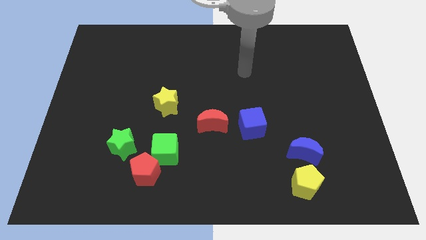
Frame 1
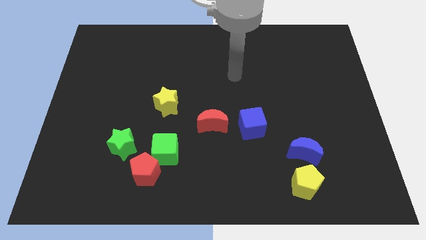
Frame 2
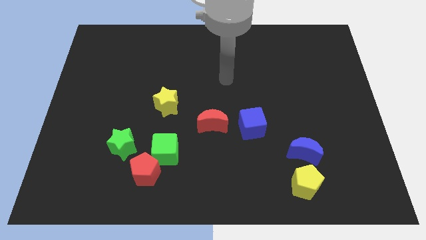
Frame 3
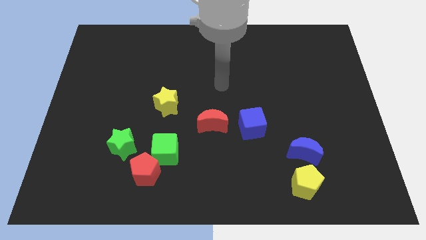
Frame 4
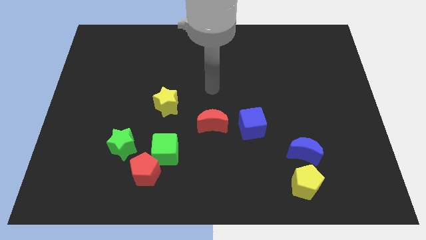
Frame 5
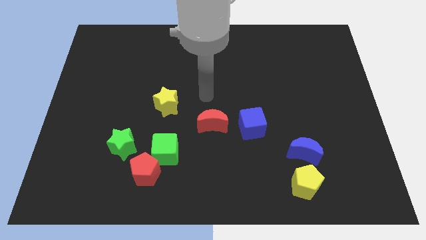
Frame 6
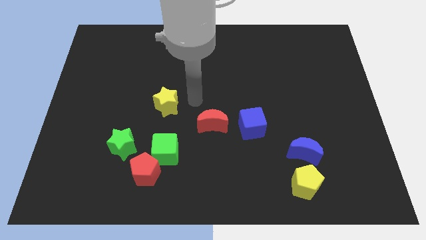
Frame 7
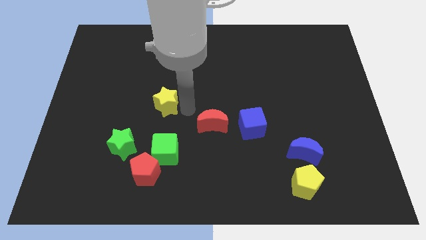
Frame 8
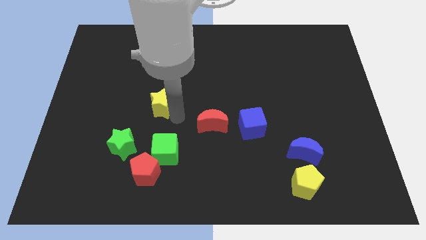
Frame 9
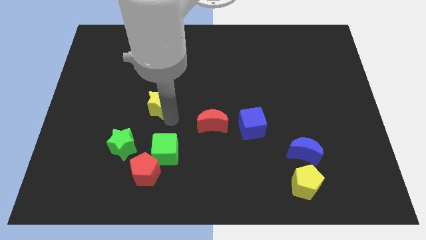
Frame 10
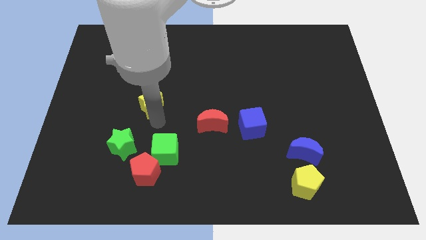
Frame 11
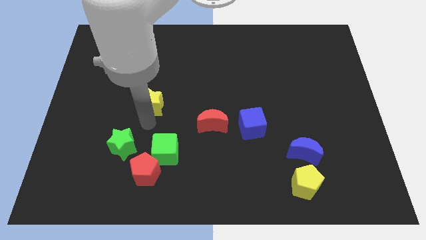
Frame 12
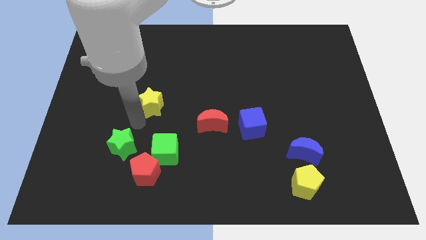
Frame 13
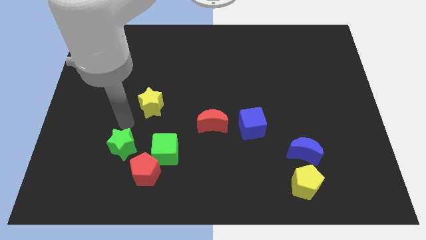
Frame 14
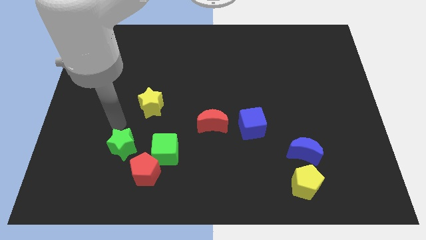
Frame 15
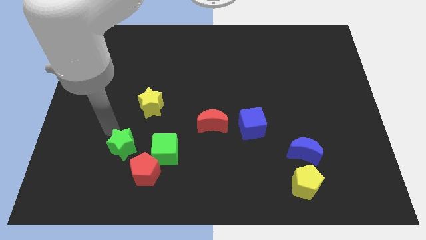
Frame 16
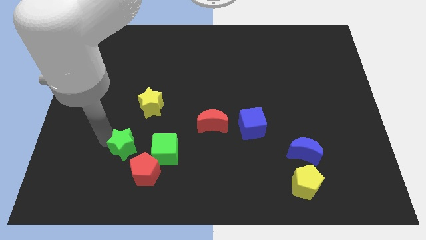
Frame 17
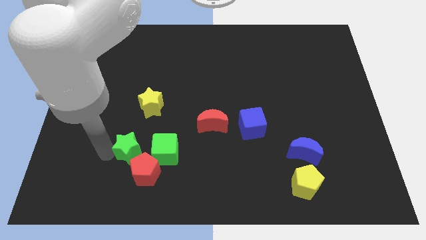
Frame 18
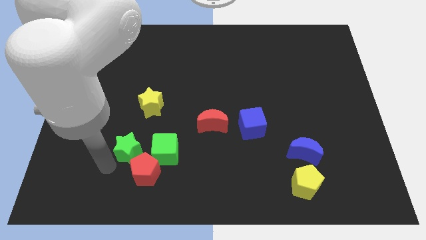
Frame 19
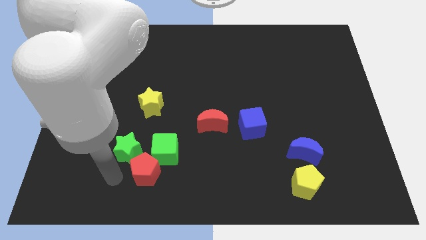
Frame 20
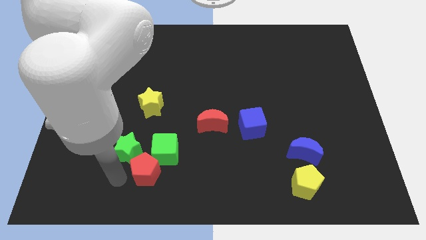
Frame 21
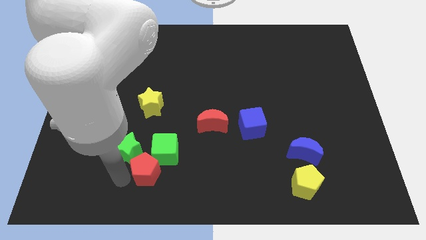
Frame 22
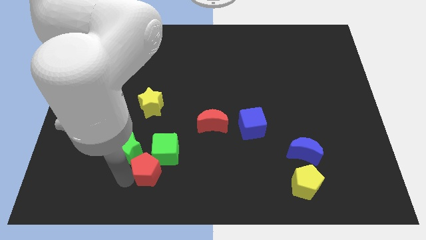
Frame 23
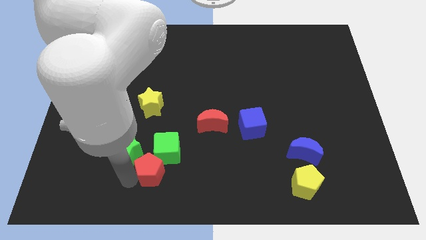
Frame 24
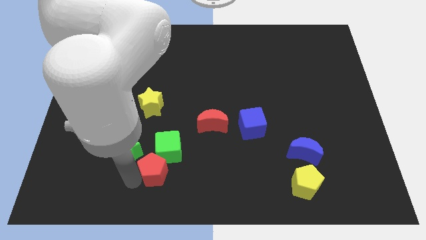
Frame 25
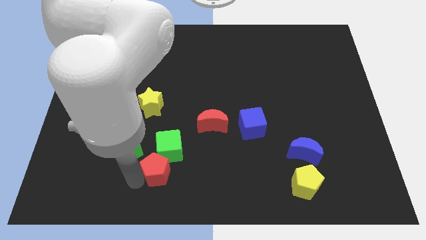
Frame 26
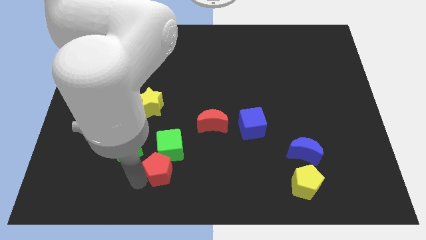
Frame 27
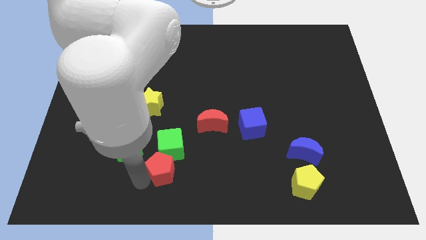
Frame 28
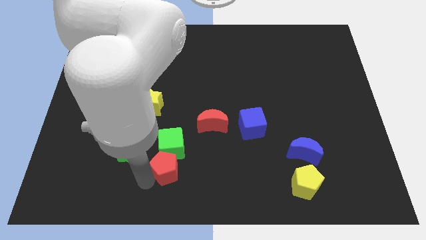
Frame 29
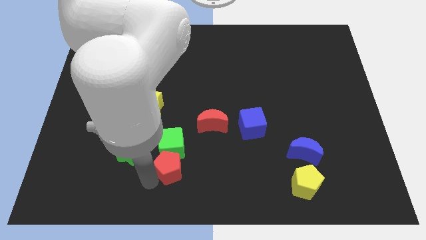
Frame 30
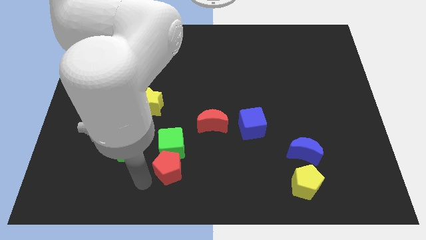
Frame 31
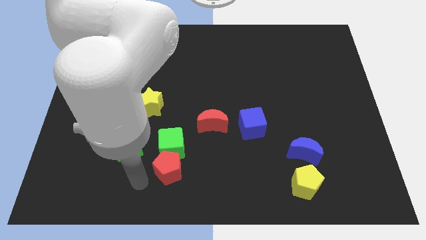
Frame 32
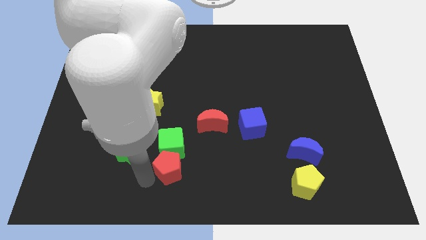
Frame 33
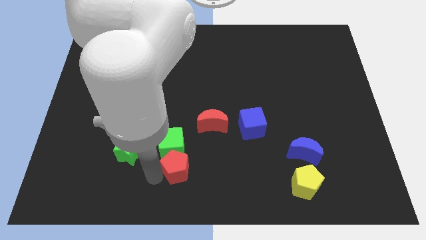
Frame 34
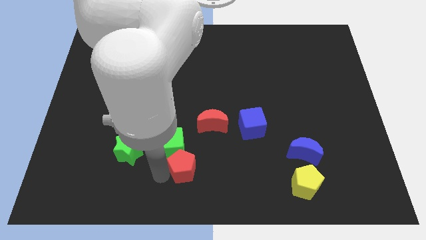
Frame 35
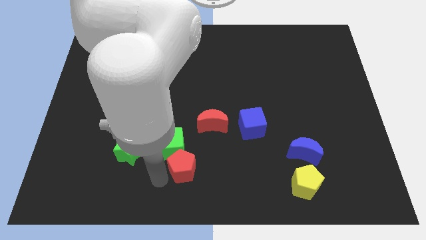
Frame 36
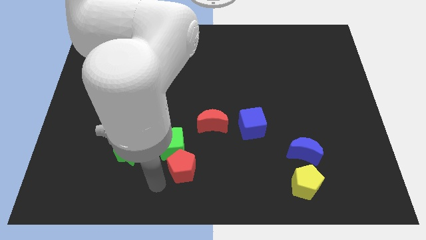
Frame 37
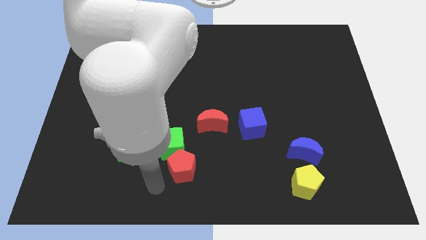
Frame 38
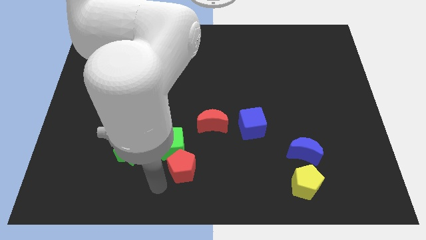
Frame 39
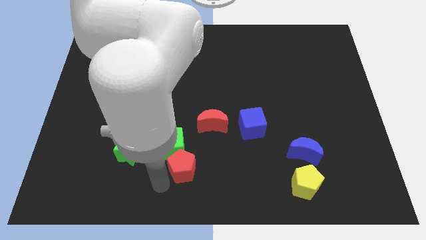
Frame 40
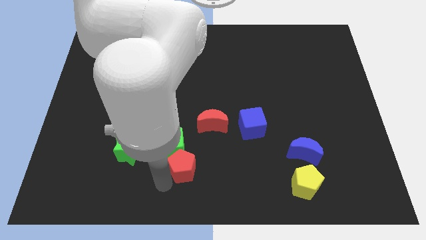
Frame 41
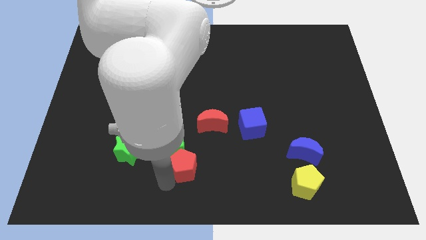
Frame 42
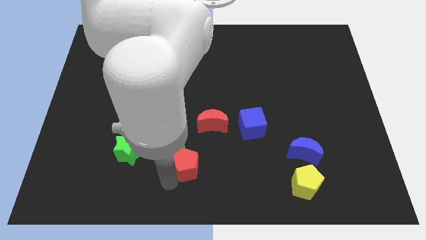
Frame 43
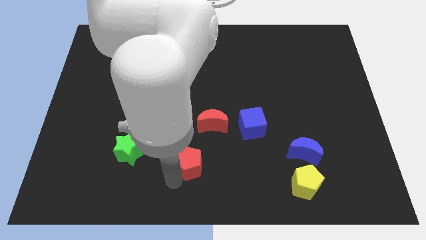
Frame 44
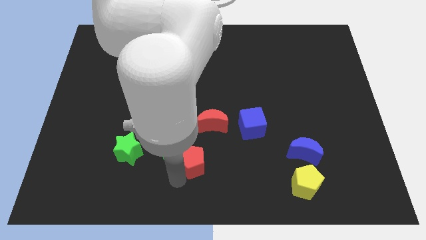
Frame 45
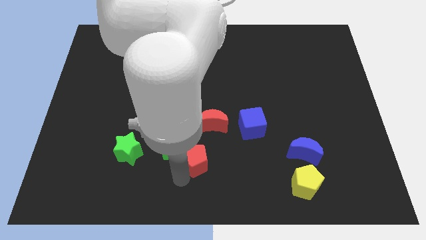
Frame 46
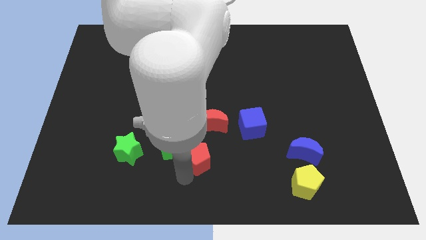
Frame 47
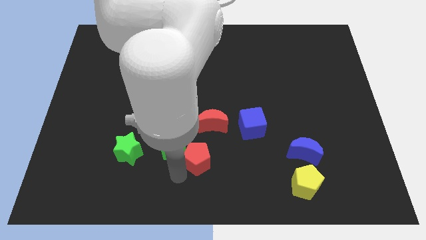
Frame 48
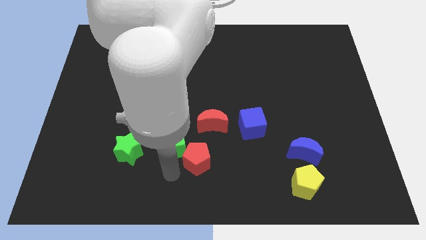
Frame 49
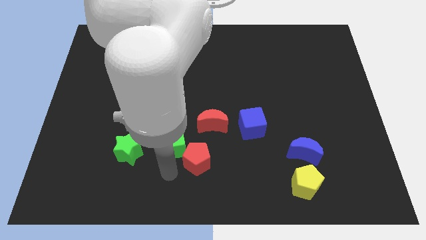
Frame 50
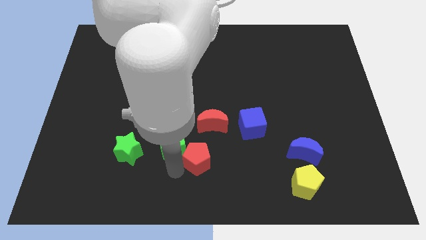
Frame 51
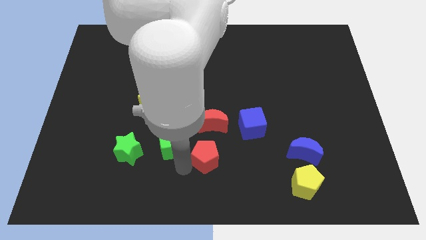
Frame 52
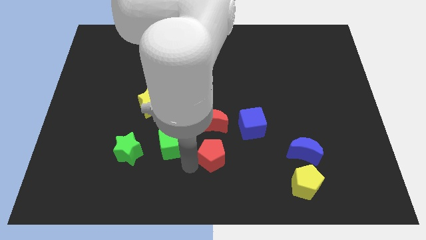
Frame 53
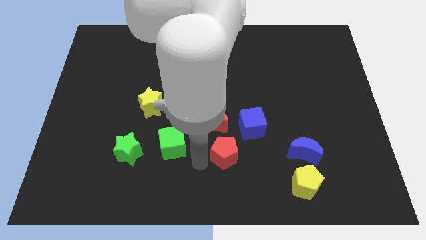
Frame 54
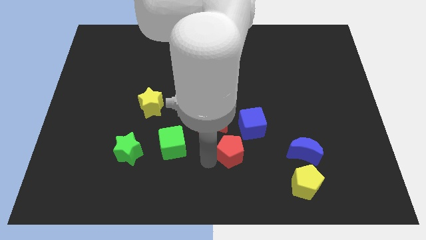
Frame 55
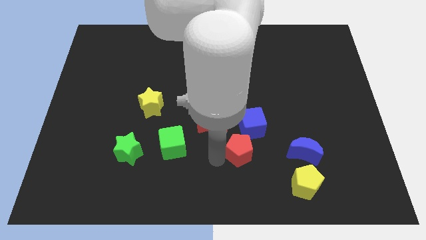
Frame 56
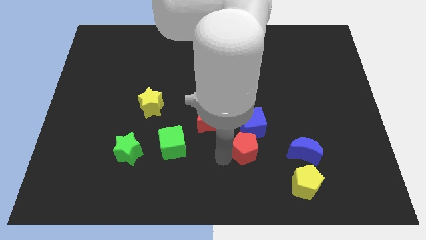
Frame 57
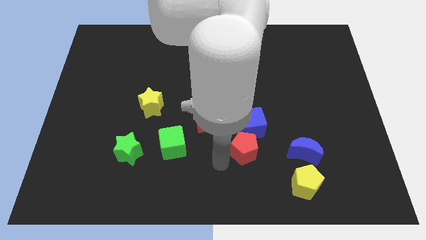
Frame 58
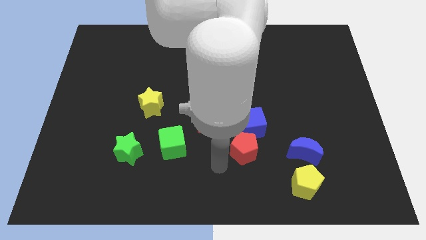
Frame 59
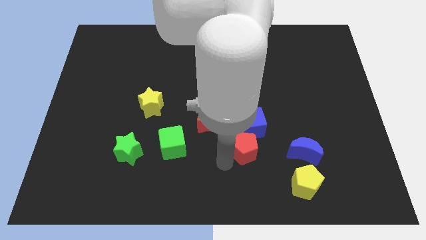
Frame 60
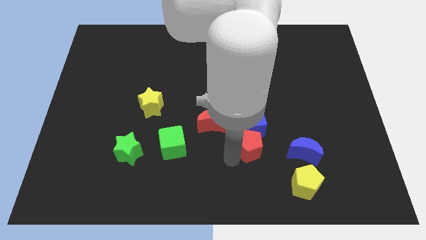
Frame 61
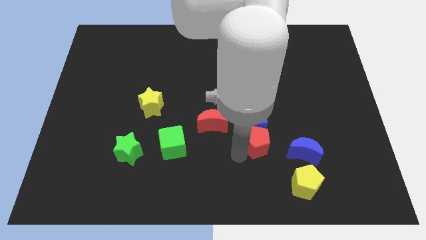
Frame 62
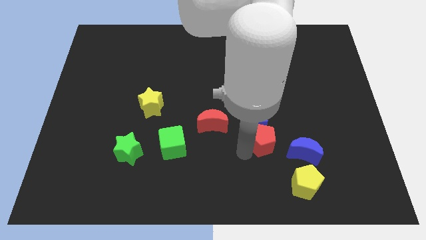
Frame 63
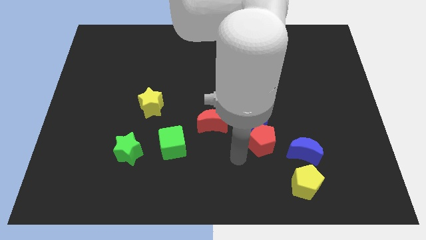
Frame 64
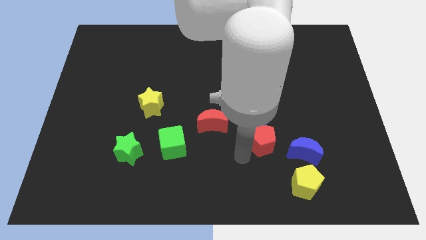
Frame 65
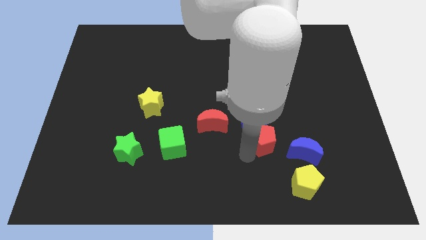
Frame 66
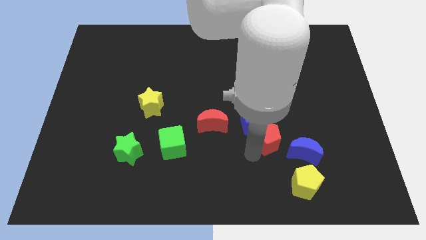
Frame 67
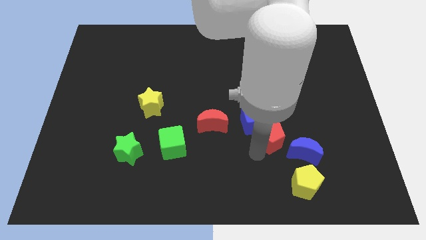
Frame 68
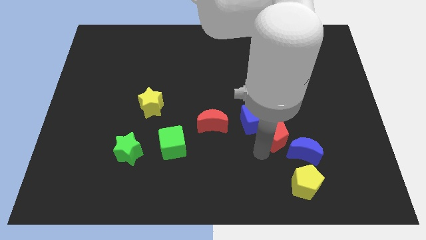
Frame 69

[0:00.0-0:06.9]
slide the red pentagon just right of the blue cube
